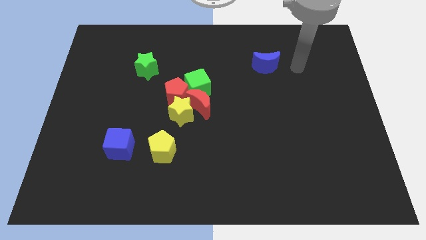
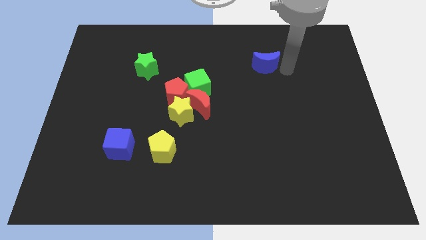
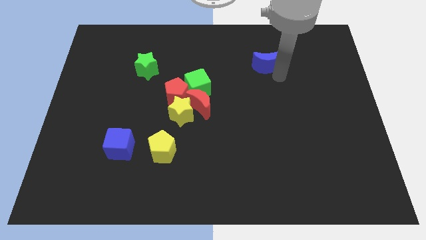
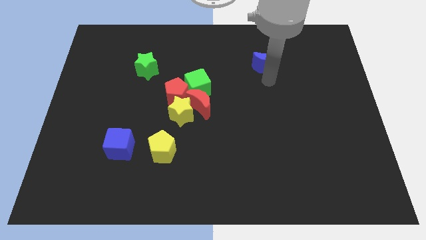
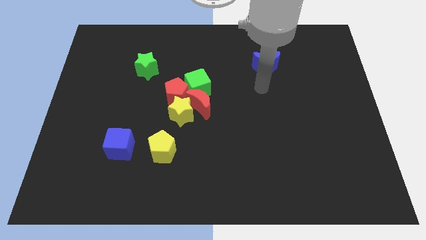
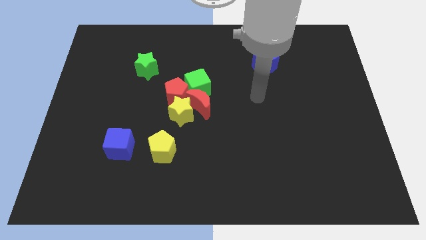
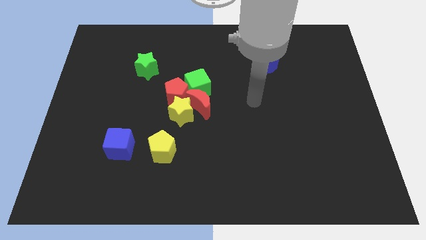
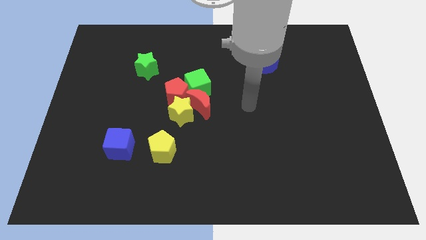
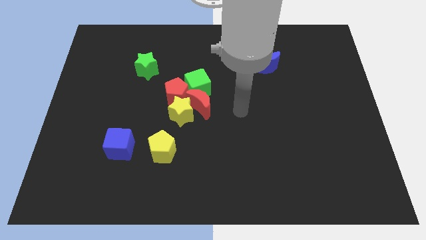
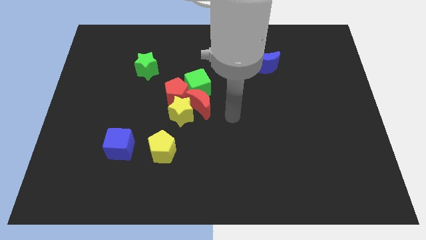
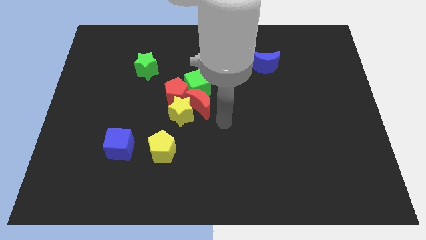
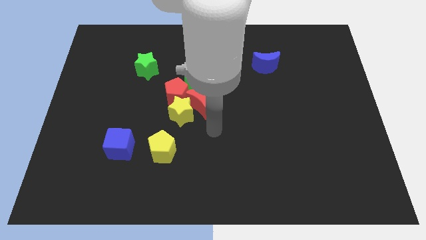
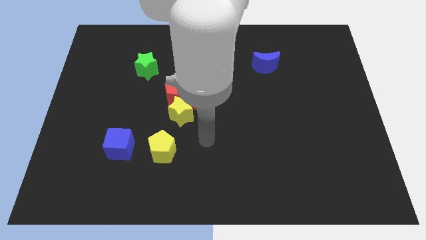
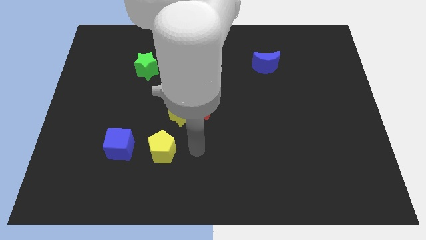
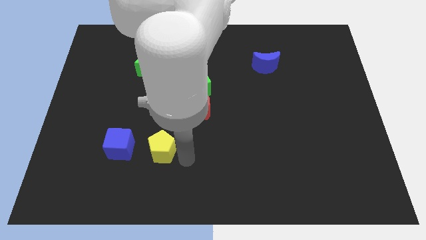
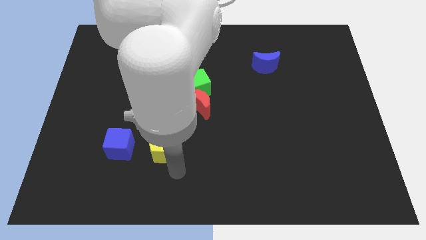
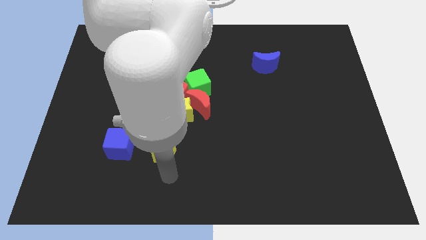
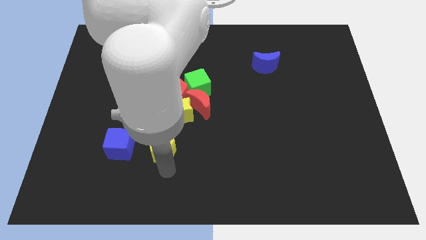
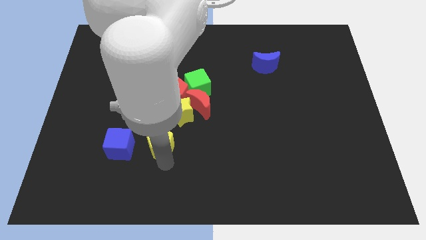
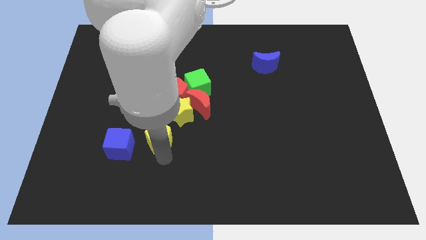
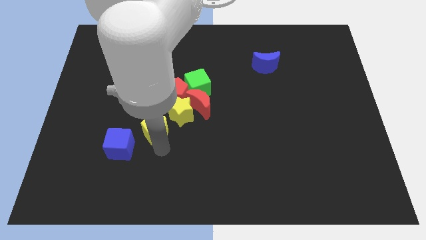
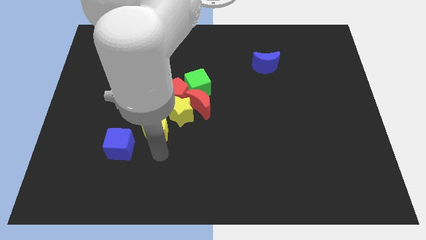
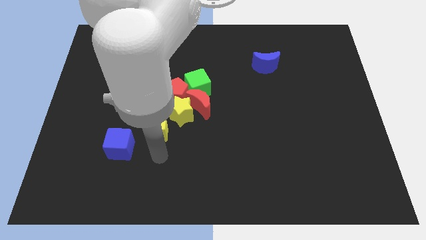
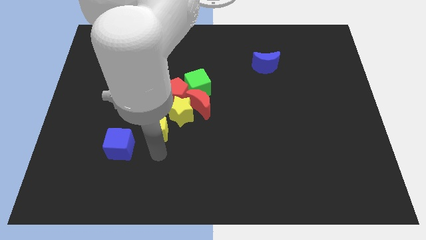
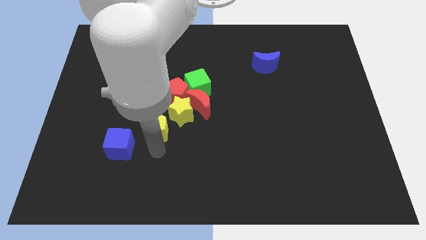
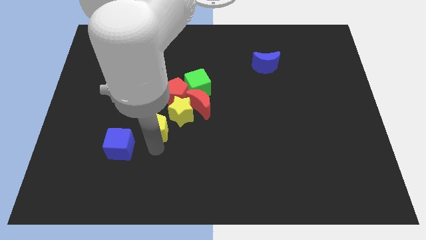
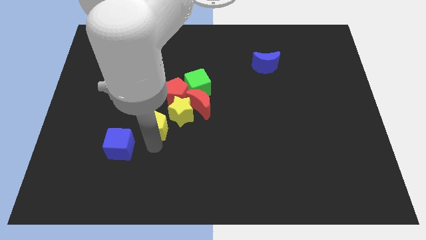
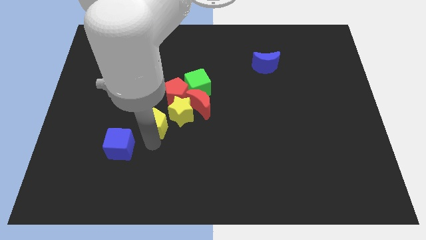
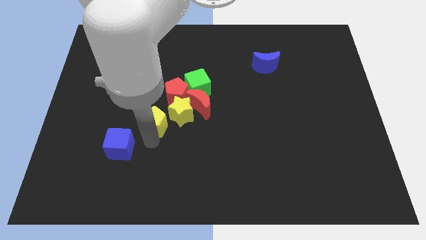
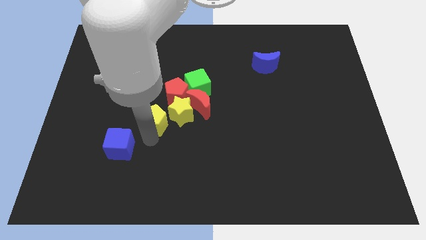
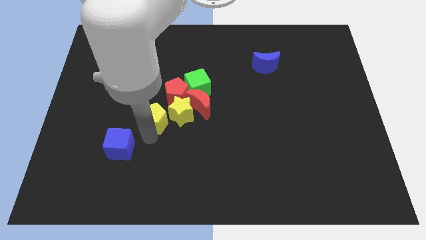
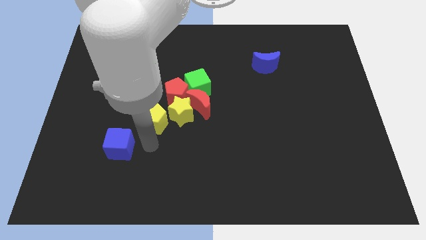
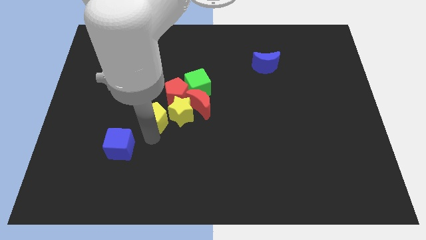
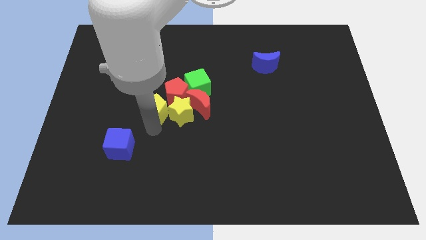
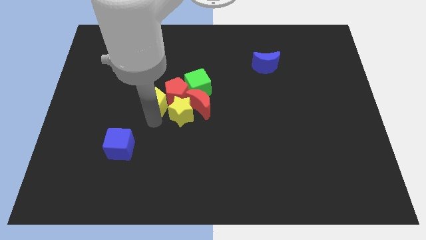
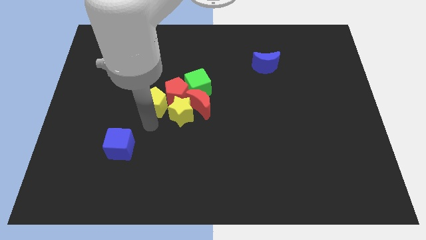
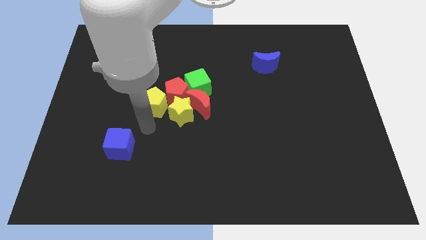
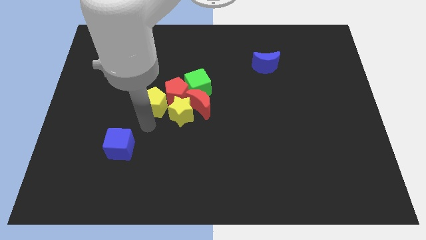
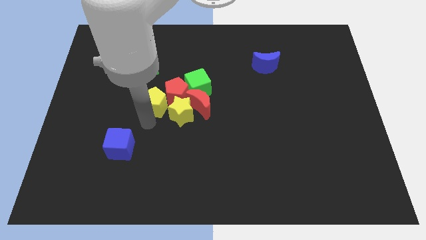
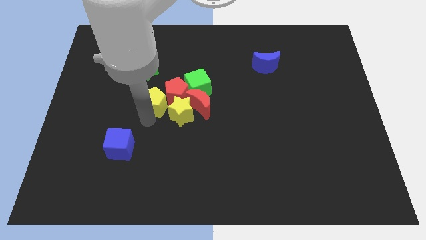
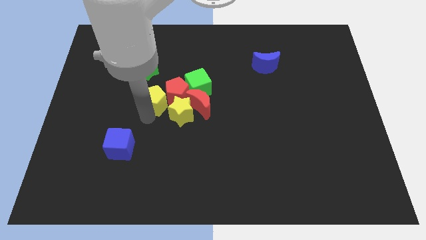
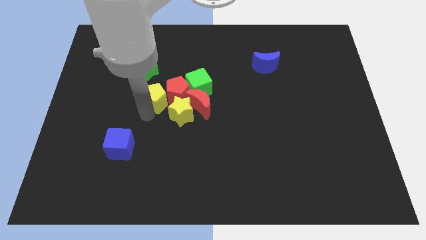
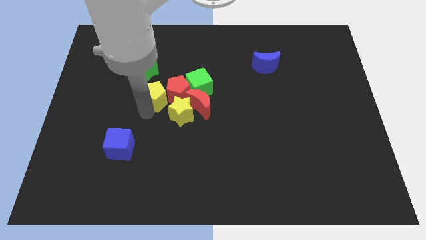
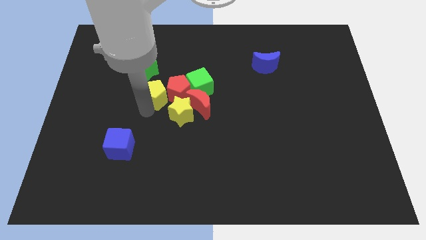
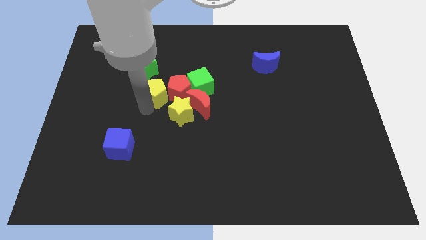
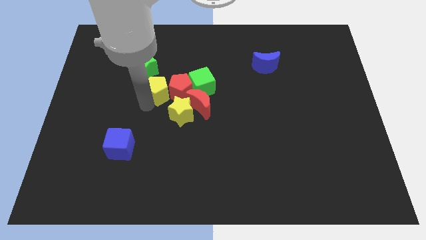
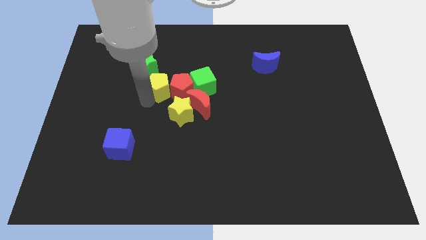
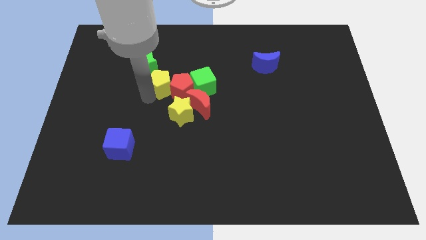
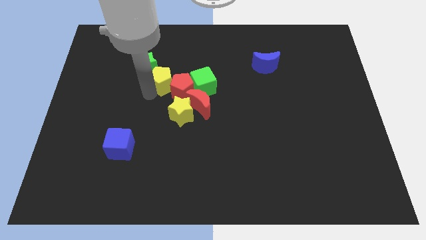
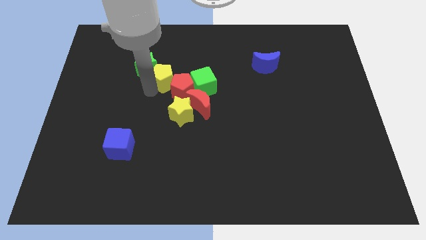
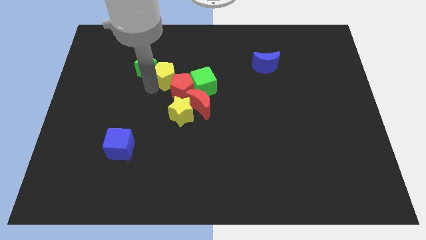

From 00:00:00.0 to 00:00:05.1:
push the yellow pentagon to the top side of the red pentagon

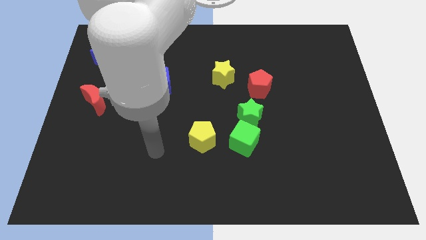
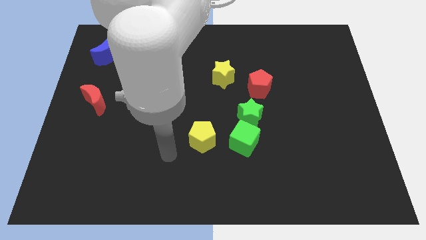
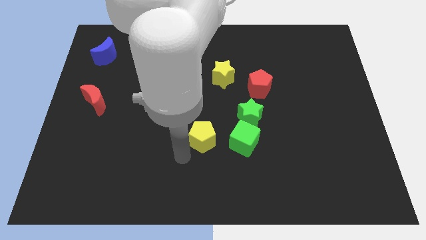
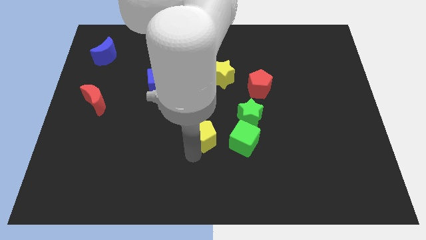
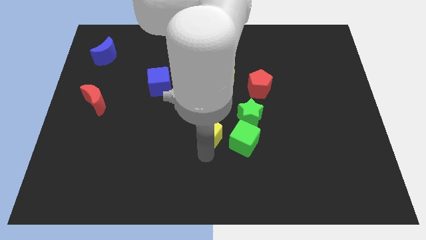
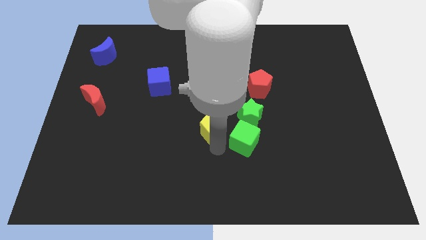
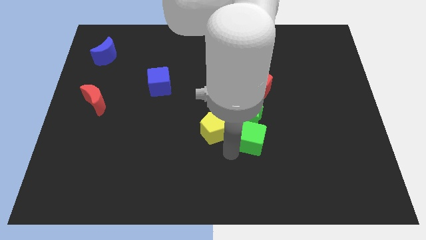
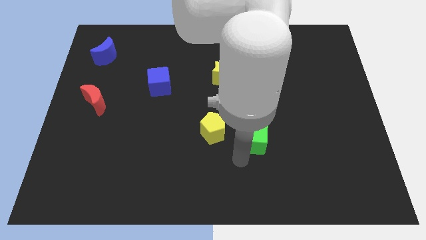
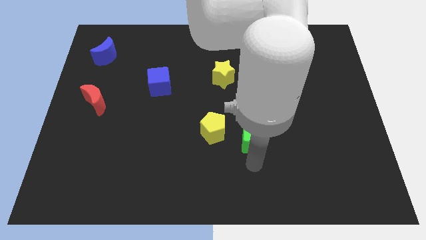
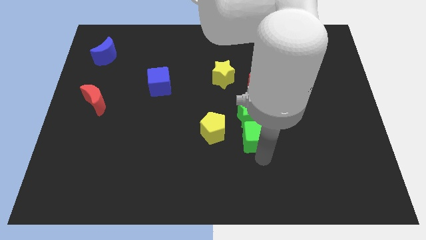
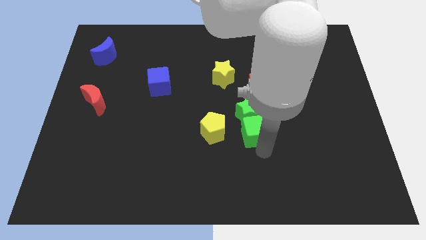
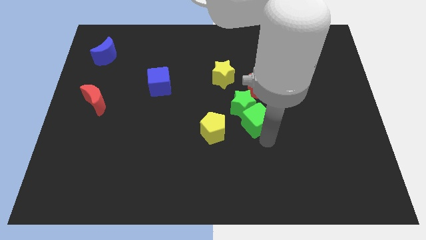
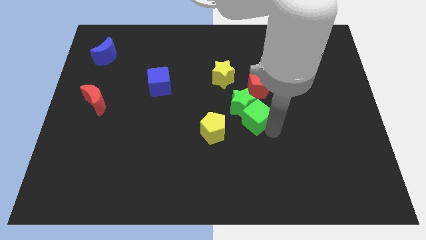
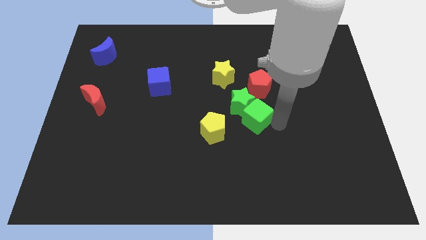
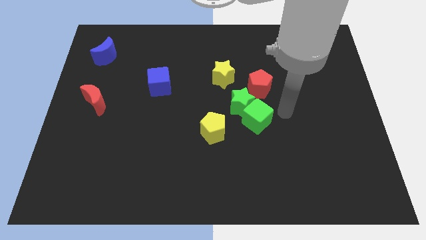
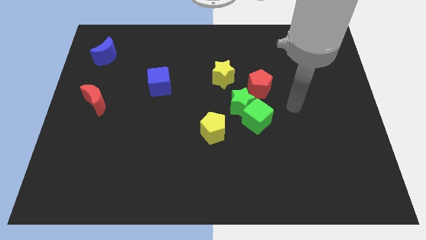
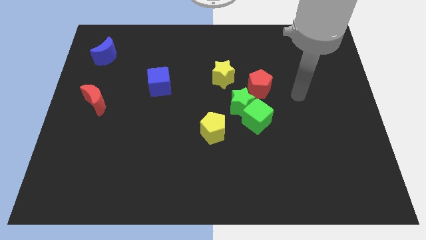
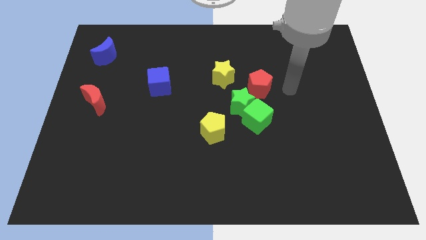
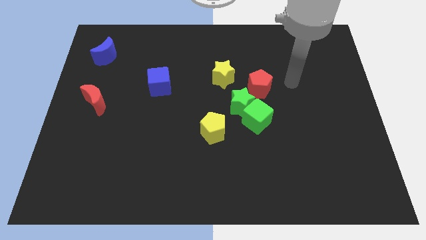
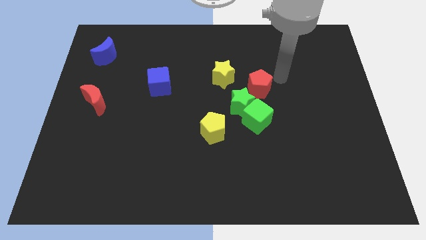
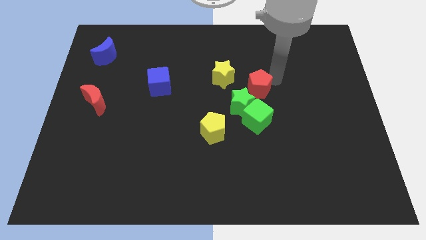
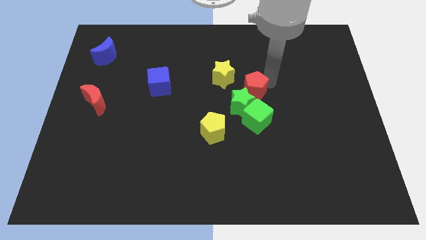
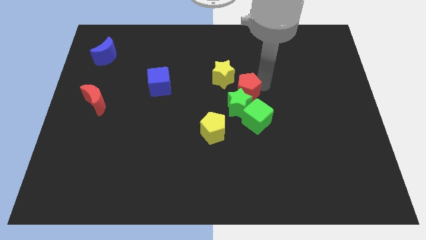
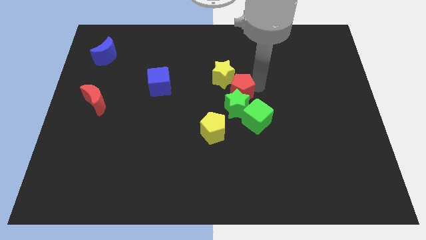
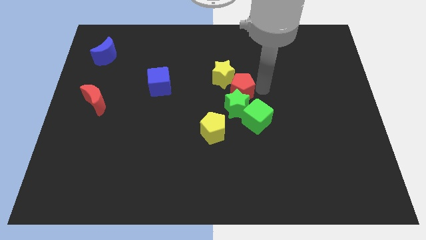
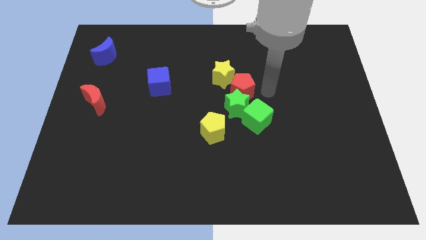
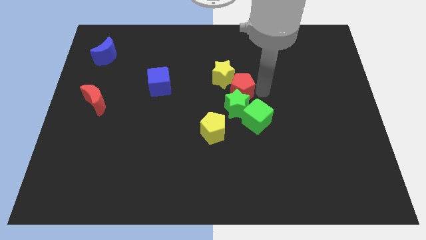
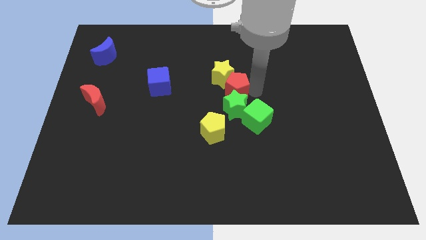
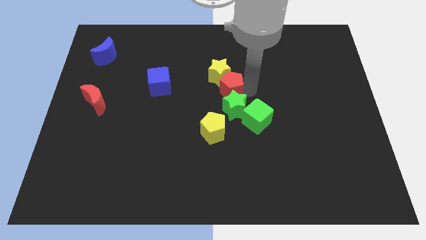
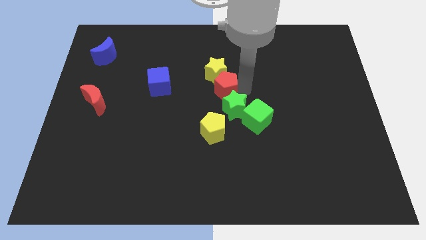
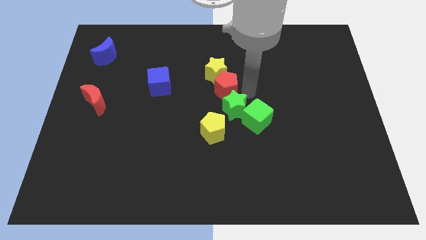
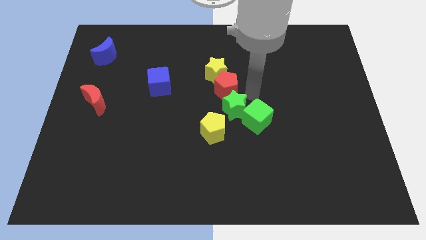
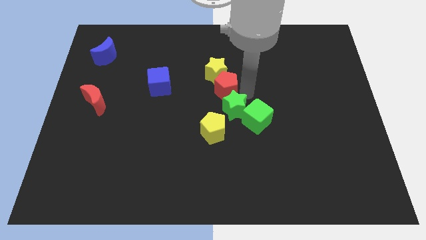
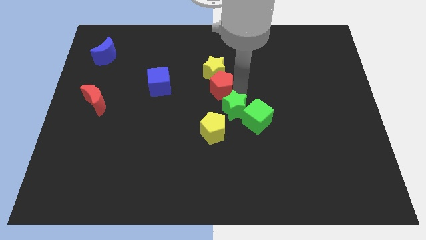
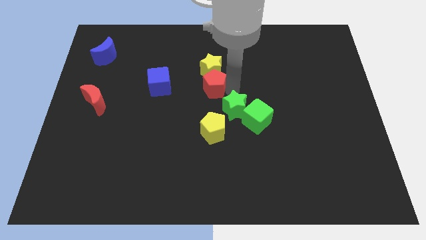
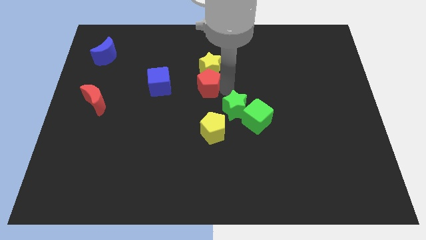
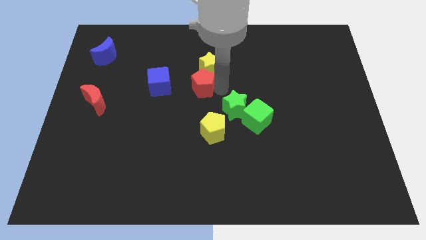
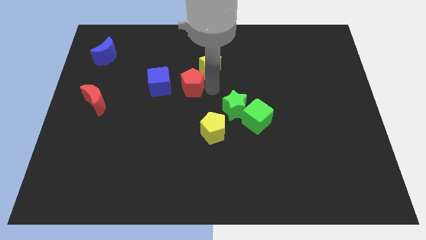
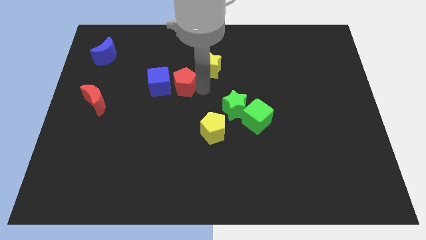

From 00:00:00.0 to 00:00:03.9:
move the red pentagon left of the yellow star
